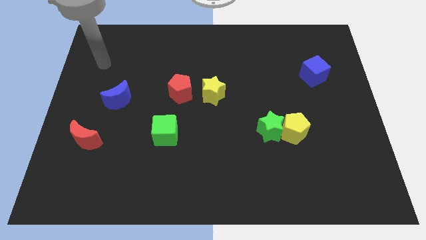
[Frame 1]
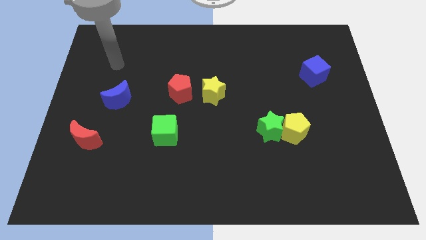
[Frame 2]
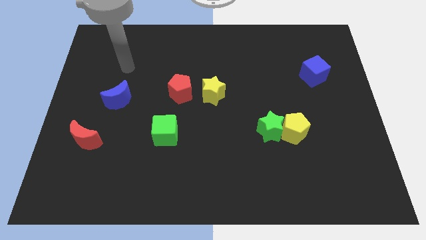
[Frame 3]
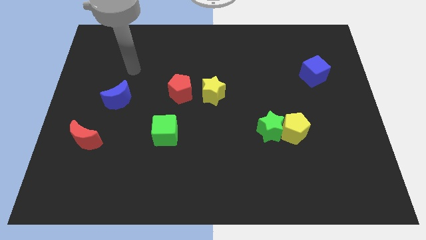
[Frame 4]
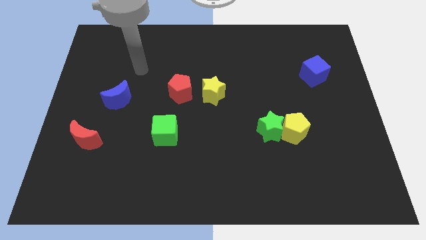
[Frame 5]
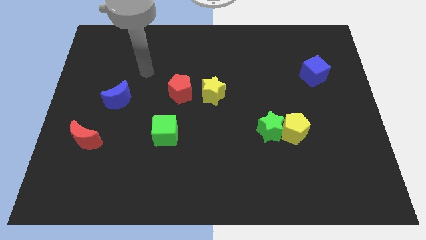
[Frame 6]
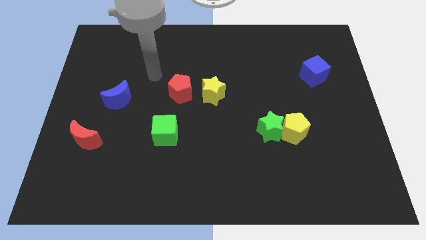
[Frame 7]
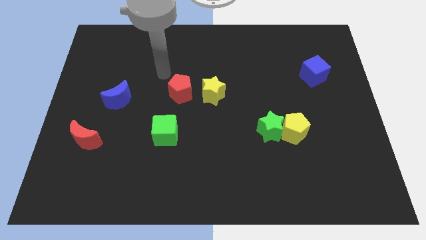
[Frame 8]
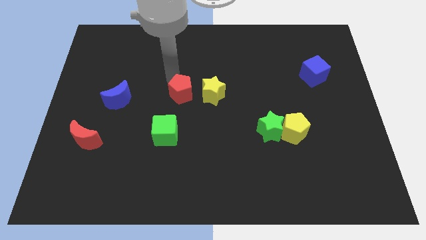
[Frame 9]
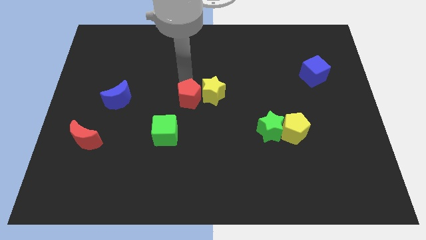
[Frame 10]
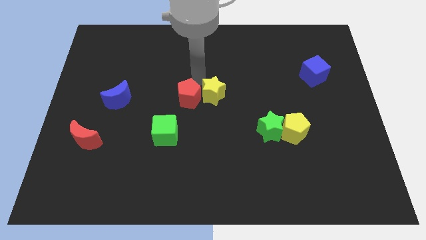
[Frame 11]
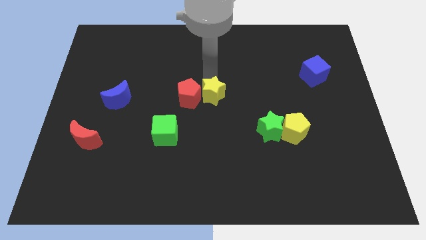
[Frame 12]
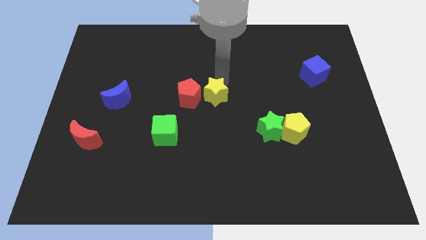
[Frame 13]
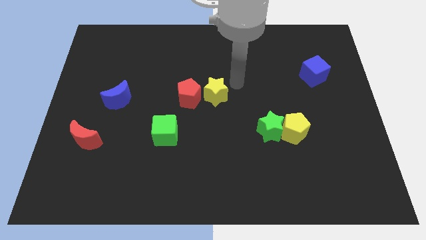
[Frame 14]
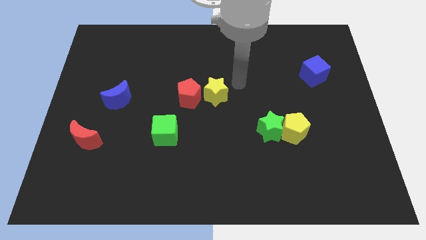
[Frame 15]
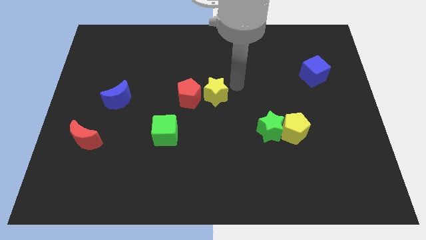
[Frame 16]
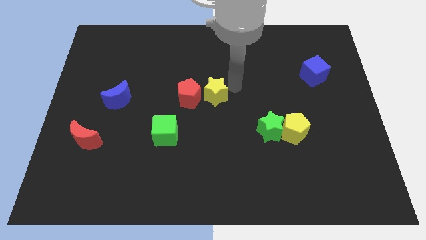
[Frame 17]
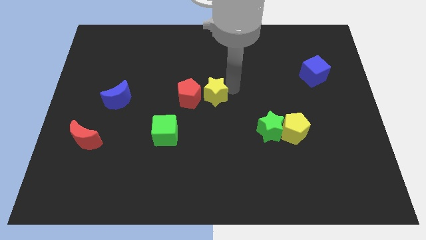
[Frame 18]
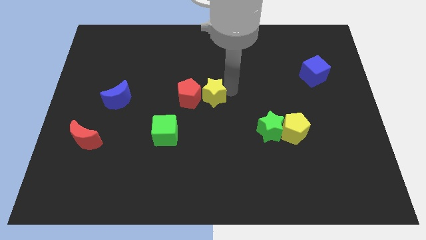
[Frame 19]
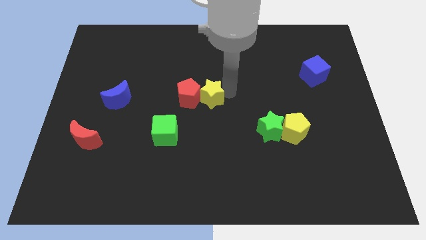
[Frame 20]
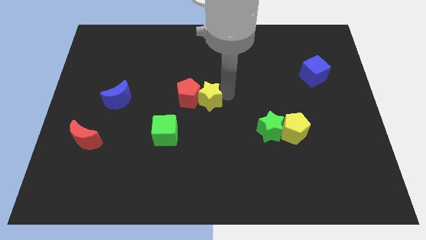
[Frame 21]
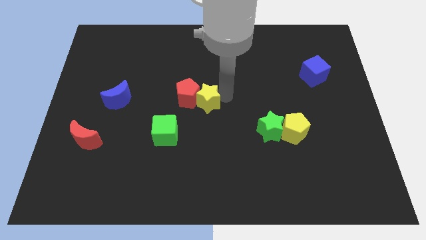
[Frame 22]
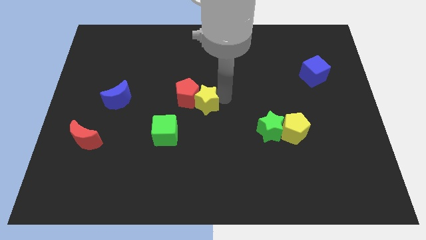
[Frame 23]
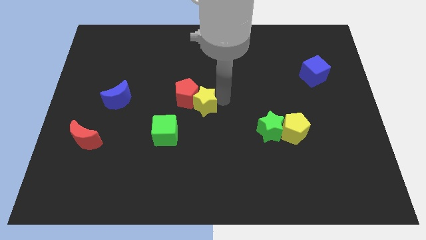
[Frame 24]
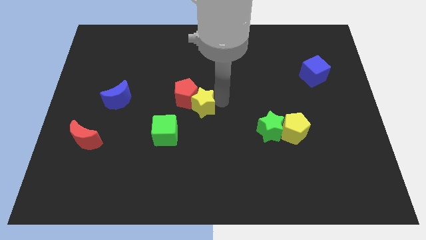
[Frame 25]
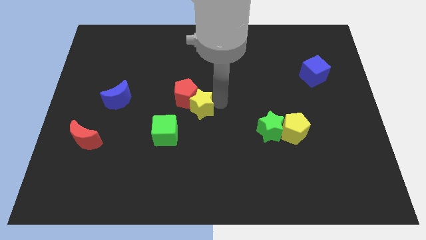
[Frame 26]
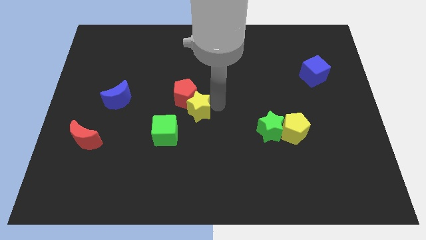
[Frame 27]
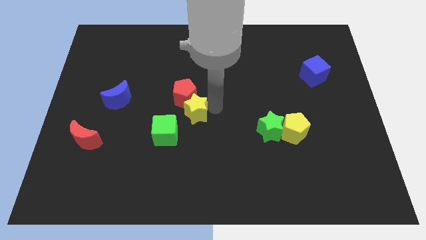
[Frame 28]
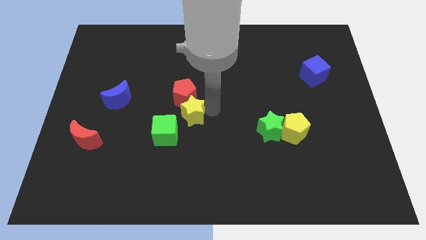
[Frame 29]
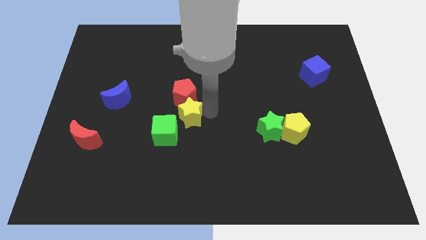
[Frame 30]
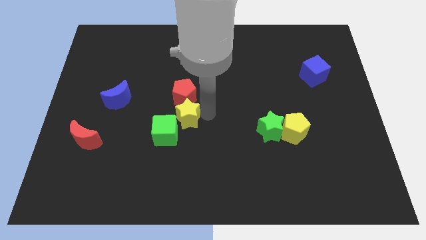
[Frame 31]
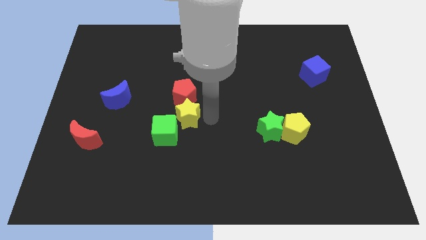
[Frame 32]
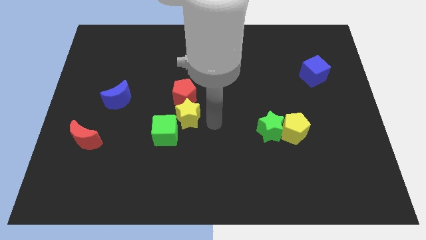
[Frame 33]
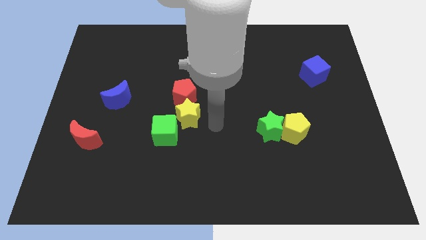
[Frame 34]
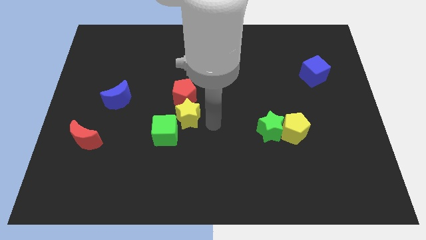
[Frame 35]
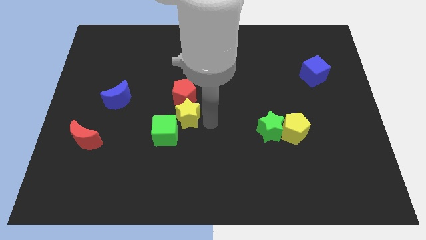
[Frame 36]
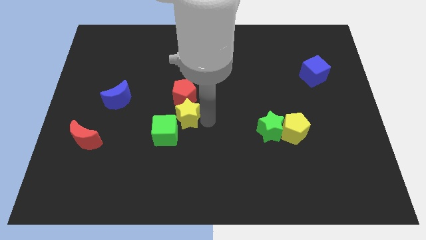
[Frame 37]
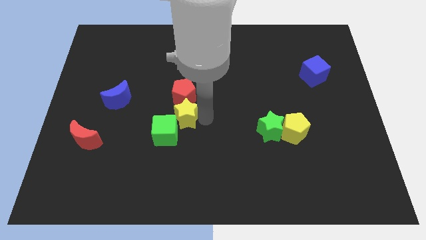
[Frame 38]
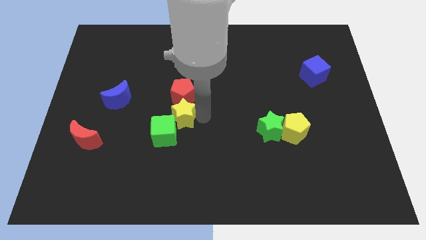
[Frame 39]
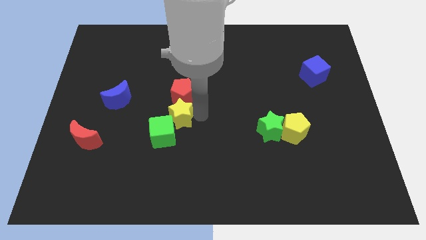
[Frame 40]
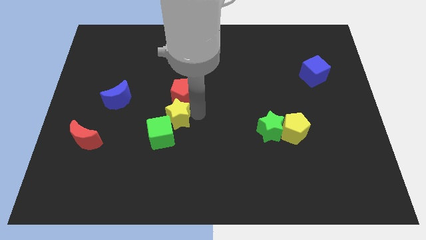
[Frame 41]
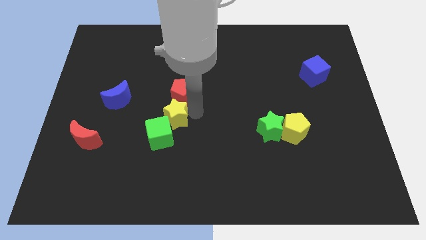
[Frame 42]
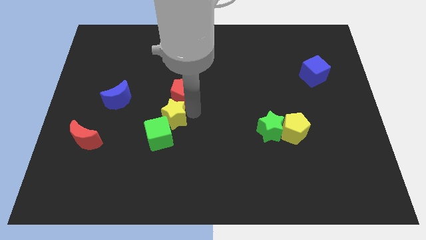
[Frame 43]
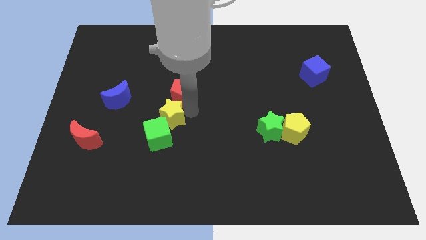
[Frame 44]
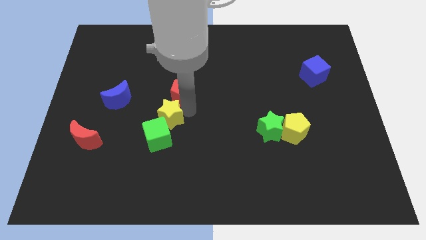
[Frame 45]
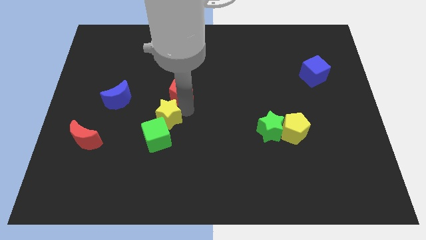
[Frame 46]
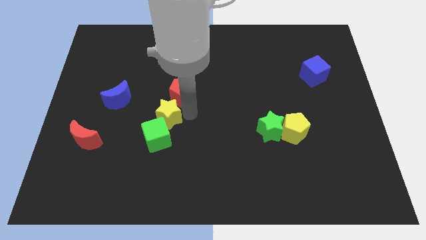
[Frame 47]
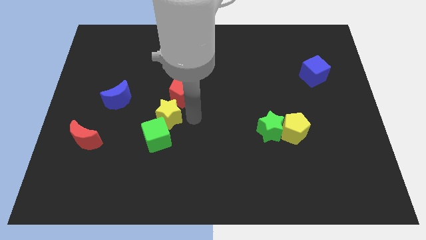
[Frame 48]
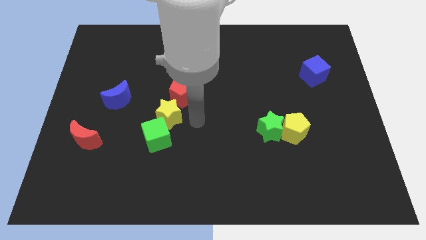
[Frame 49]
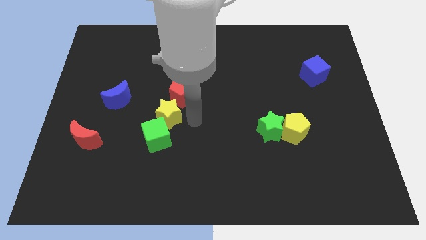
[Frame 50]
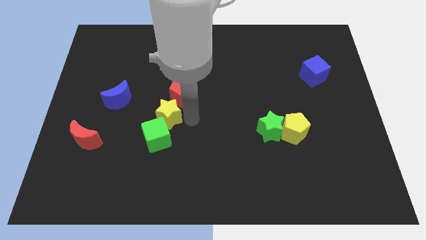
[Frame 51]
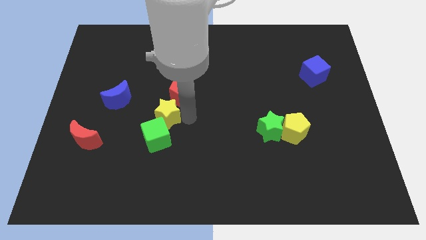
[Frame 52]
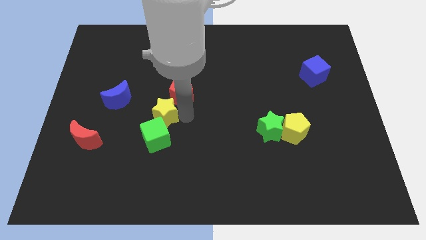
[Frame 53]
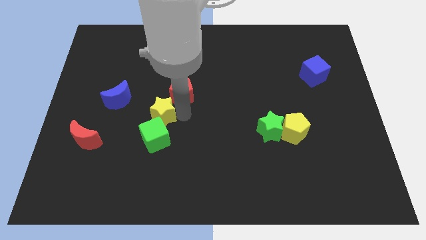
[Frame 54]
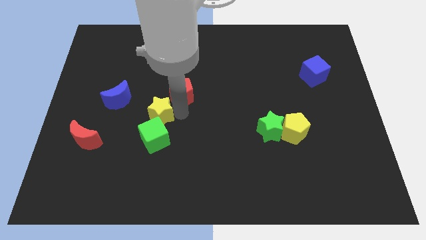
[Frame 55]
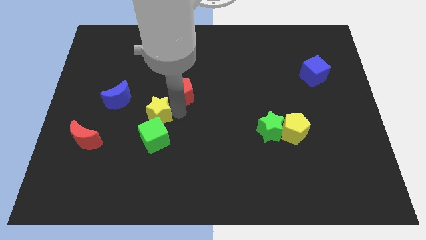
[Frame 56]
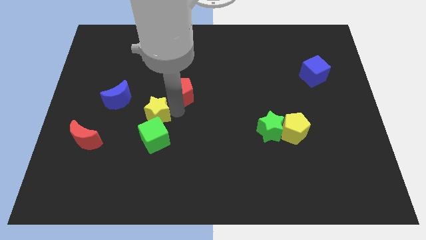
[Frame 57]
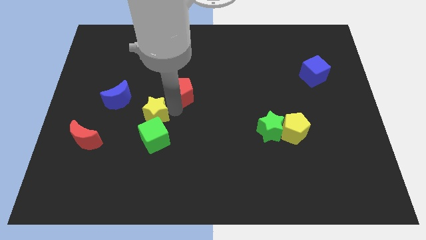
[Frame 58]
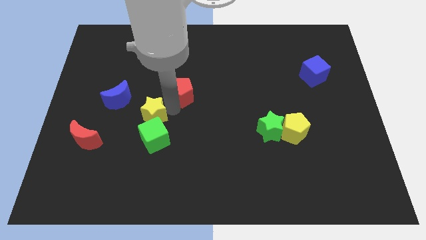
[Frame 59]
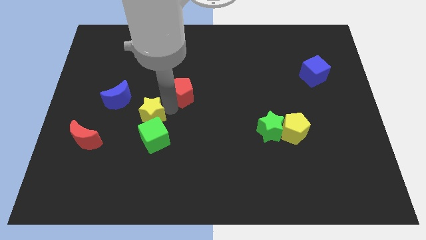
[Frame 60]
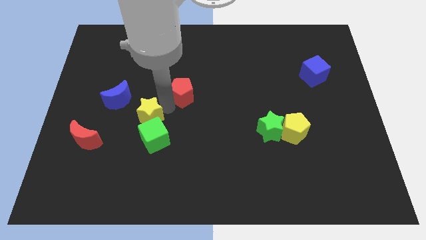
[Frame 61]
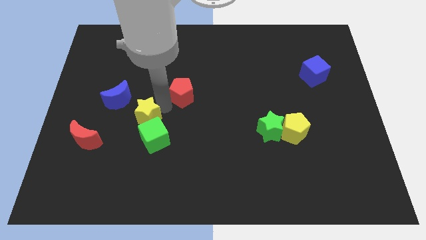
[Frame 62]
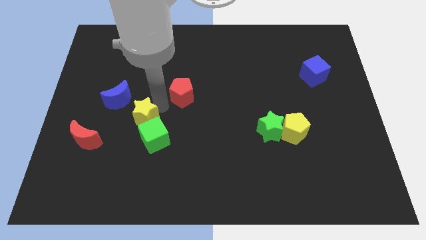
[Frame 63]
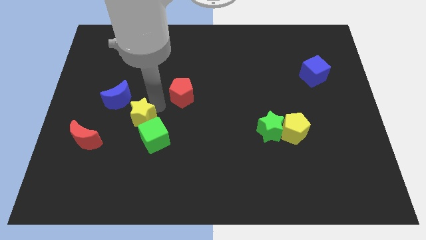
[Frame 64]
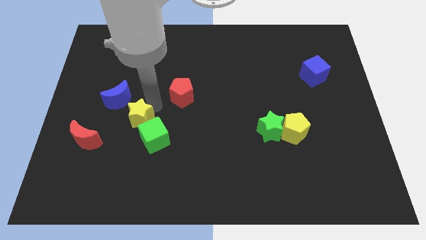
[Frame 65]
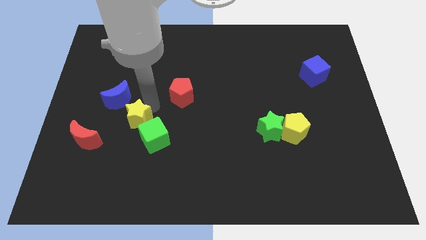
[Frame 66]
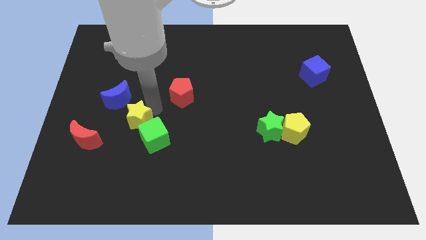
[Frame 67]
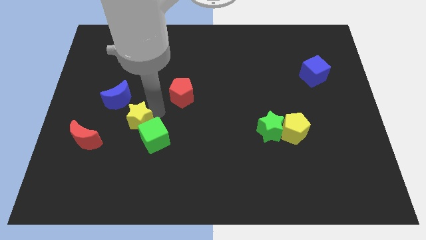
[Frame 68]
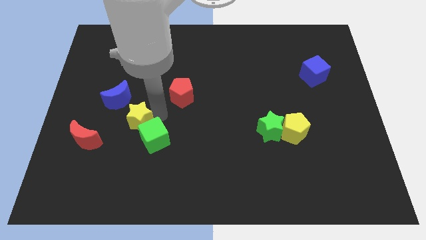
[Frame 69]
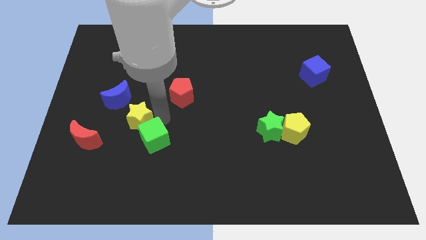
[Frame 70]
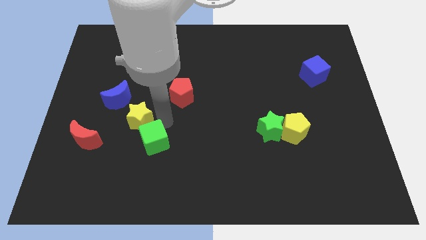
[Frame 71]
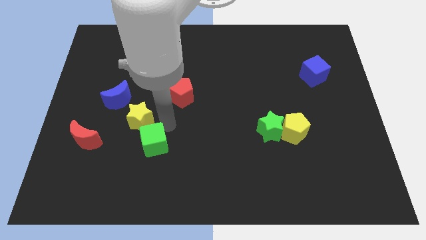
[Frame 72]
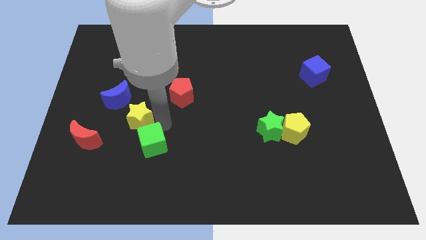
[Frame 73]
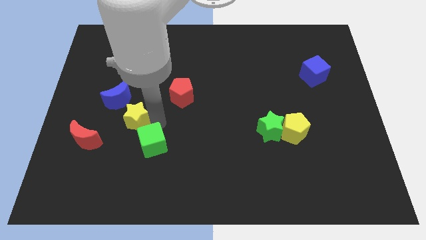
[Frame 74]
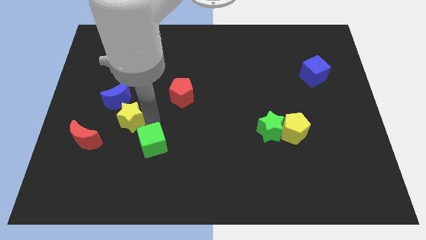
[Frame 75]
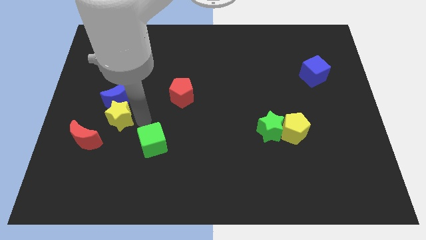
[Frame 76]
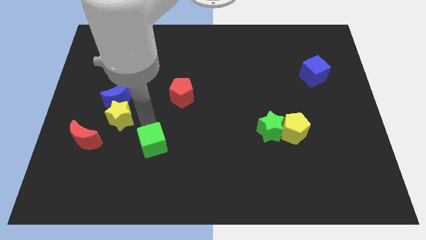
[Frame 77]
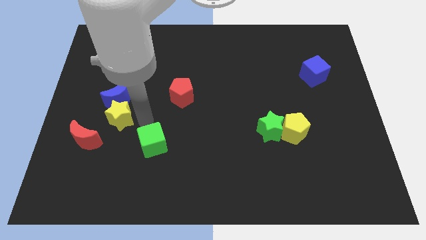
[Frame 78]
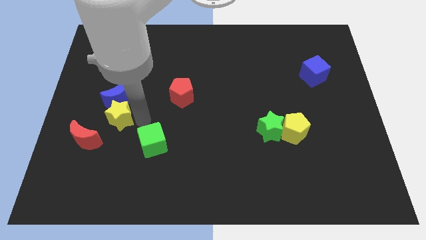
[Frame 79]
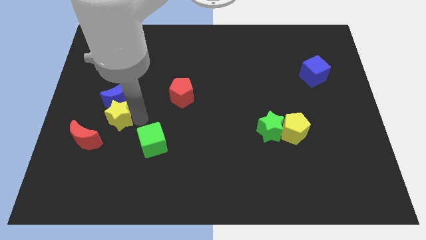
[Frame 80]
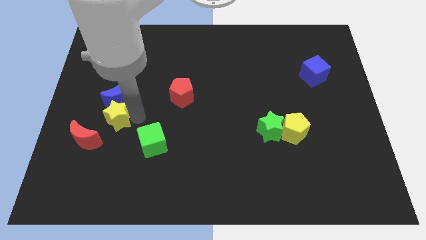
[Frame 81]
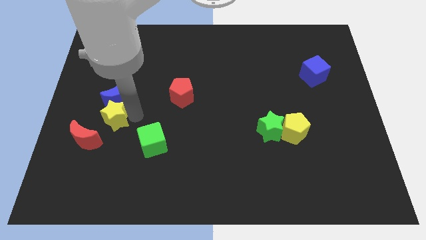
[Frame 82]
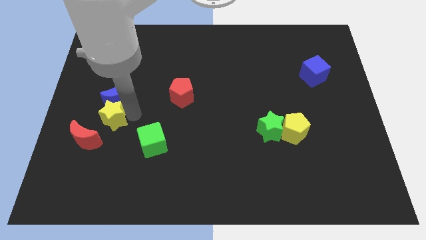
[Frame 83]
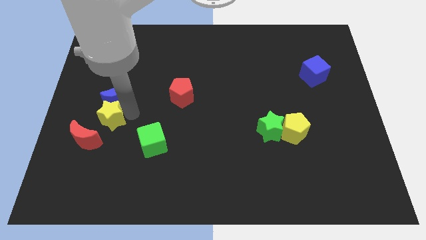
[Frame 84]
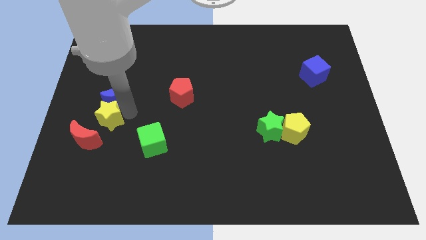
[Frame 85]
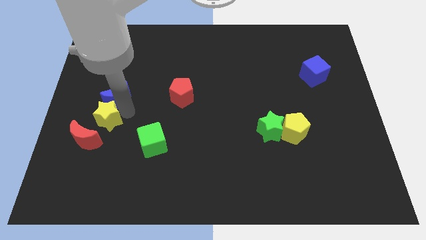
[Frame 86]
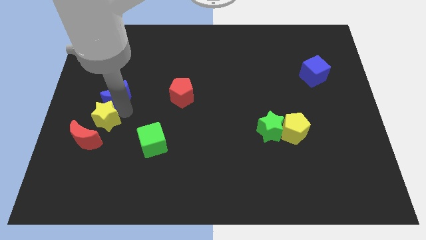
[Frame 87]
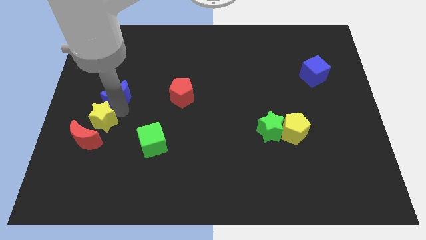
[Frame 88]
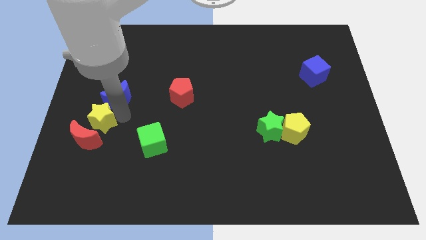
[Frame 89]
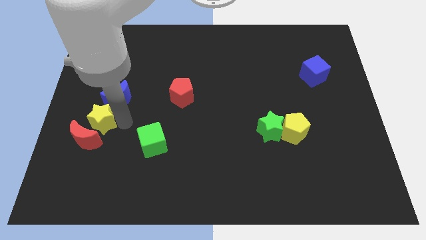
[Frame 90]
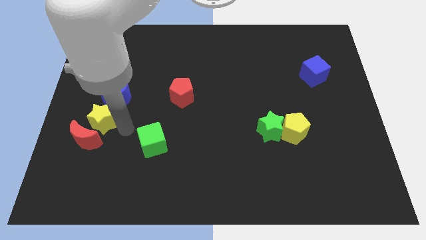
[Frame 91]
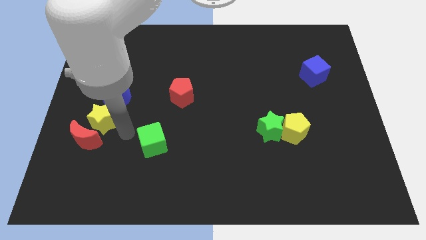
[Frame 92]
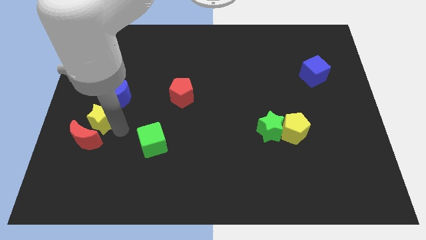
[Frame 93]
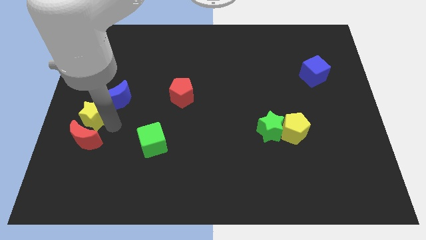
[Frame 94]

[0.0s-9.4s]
move the yellow star to the left side
